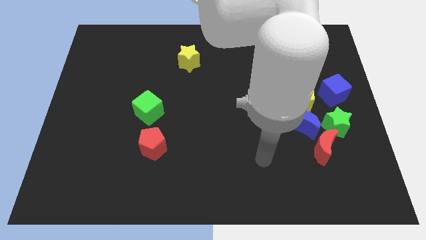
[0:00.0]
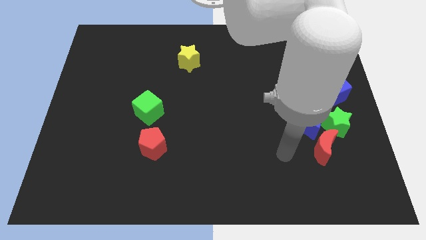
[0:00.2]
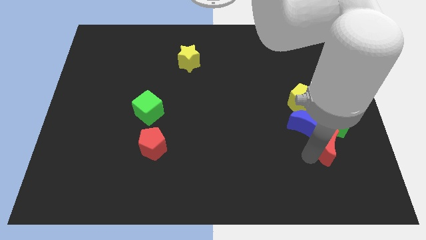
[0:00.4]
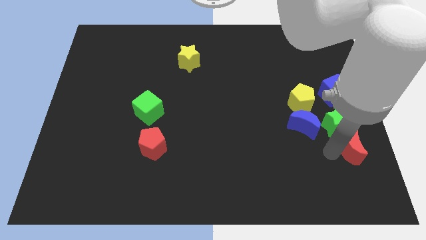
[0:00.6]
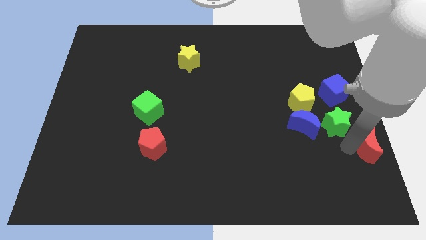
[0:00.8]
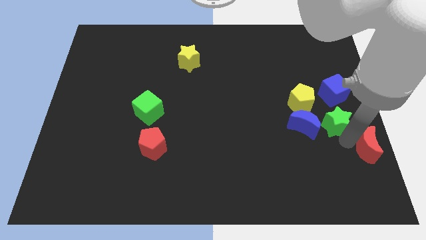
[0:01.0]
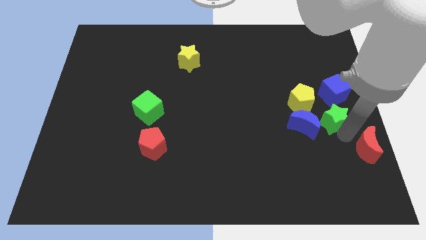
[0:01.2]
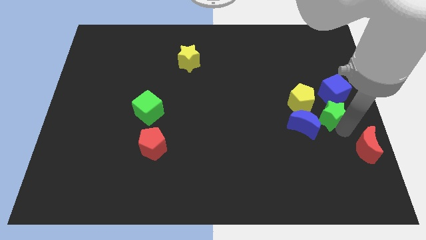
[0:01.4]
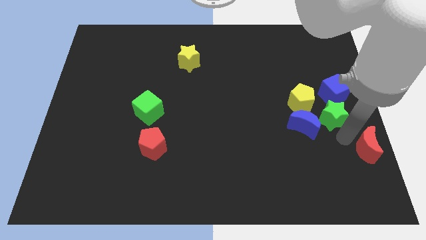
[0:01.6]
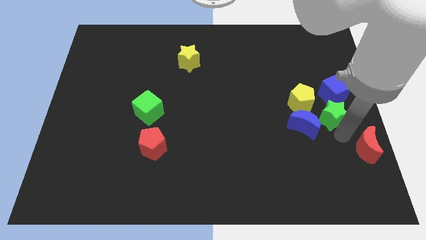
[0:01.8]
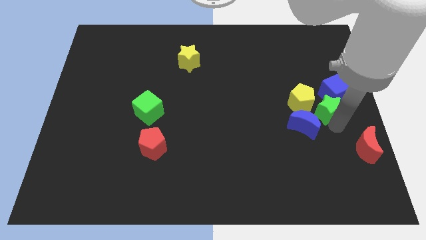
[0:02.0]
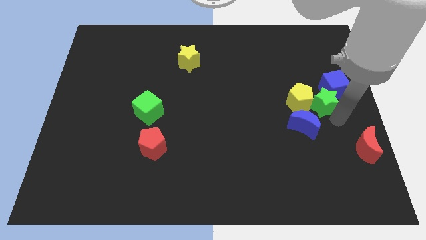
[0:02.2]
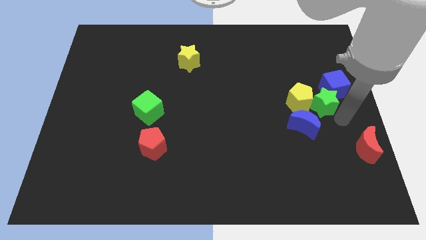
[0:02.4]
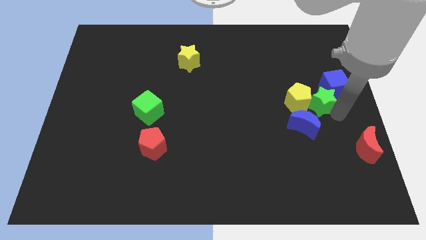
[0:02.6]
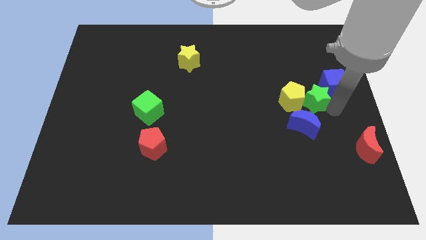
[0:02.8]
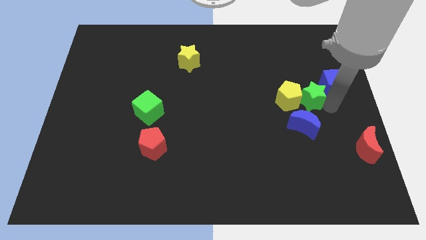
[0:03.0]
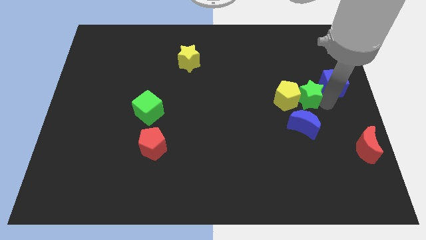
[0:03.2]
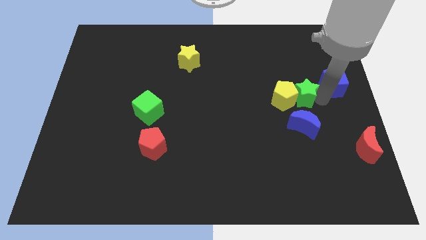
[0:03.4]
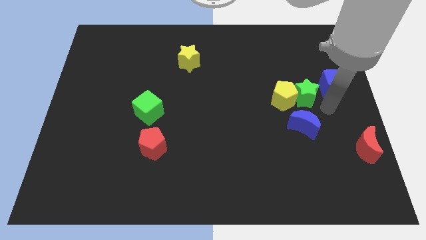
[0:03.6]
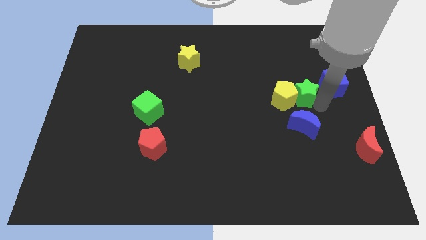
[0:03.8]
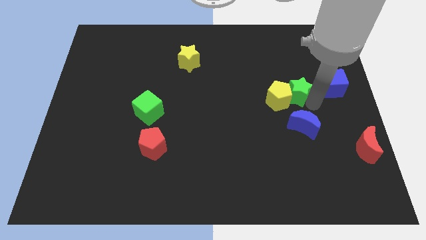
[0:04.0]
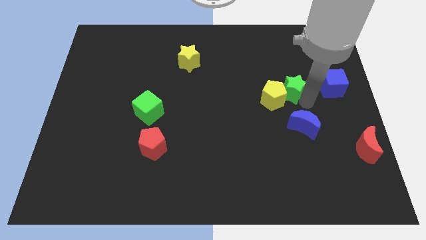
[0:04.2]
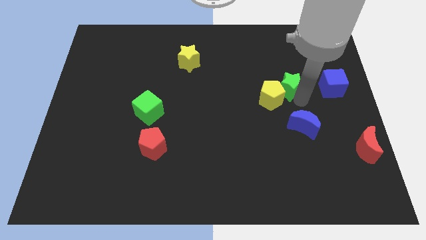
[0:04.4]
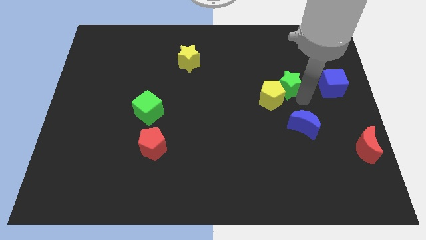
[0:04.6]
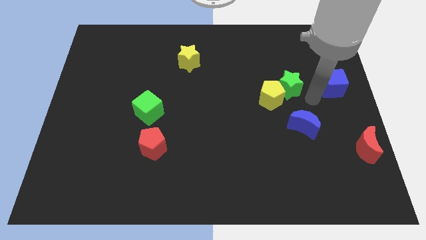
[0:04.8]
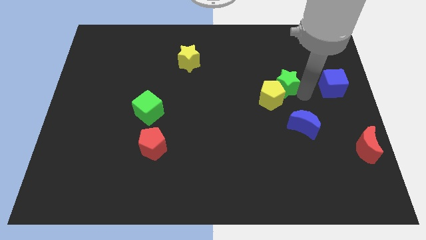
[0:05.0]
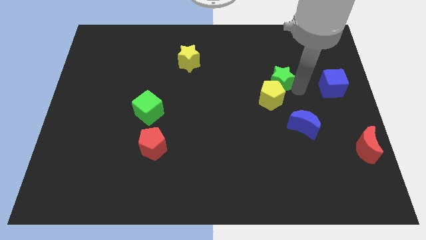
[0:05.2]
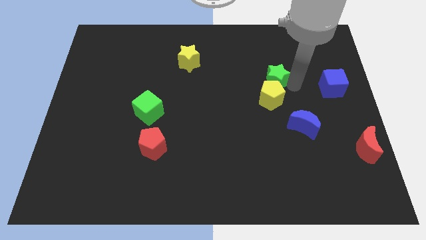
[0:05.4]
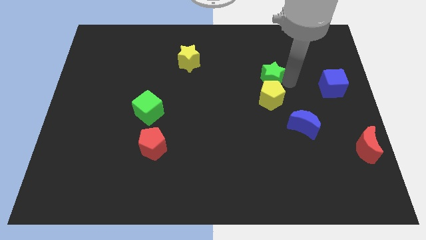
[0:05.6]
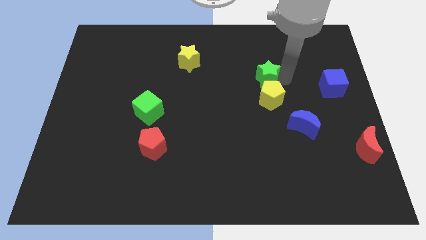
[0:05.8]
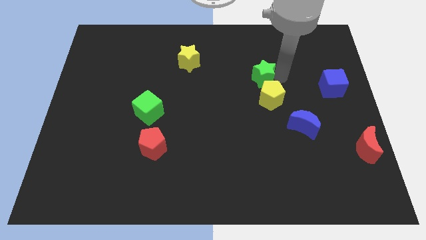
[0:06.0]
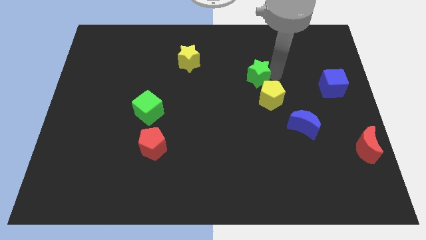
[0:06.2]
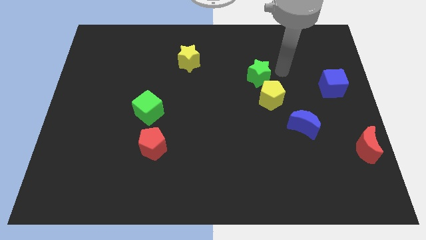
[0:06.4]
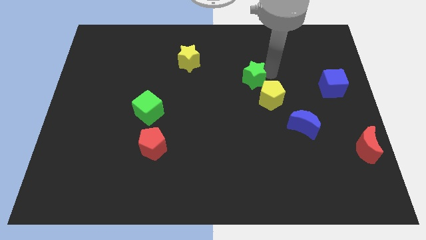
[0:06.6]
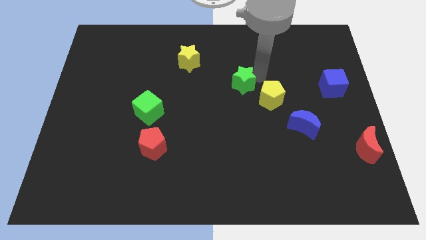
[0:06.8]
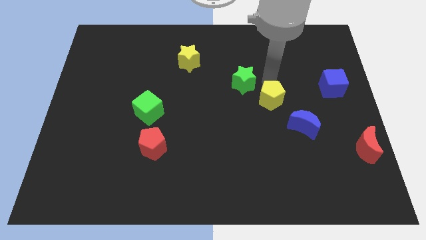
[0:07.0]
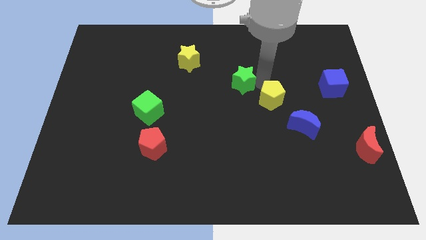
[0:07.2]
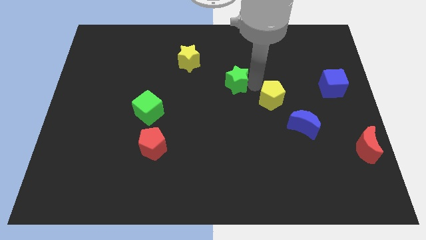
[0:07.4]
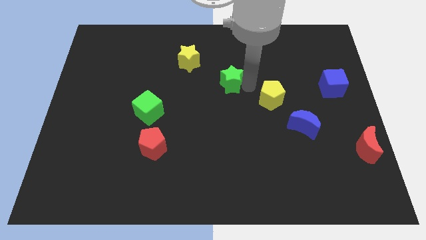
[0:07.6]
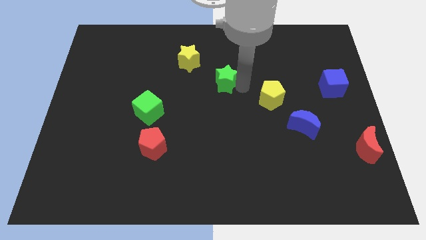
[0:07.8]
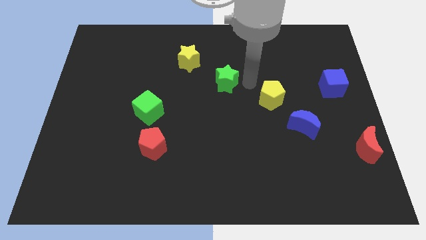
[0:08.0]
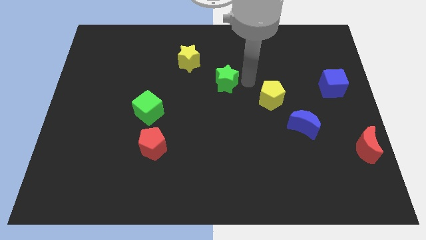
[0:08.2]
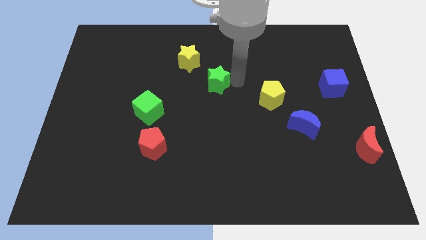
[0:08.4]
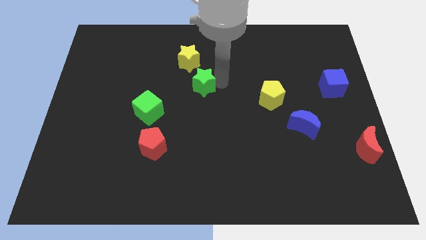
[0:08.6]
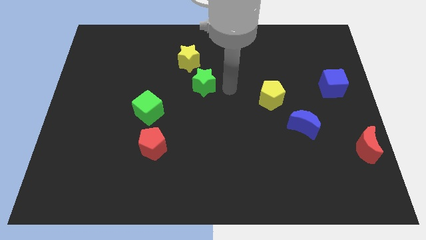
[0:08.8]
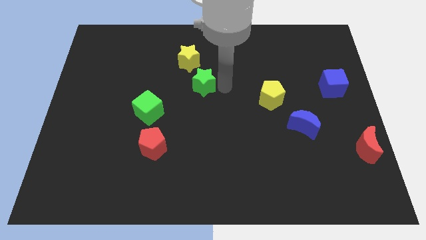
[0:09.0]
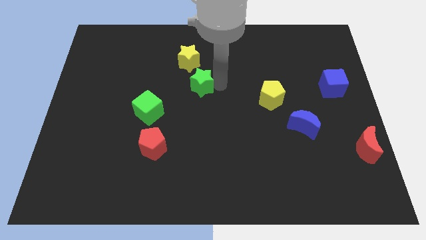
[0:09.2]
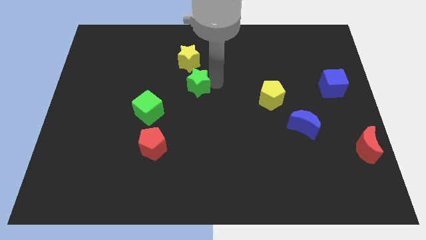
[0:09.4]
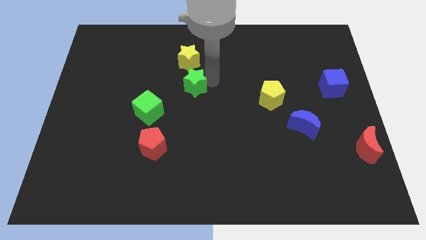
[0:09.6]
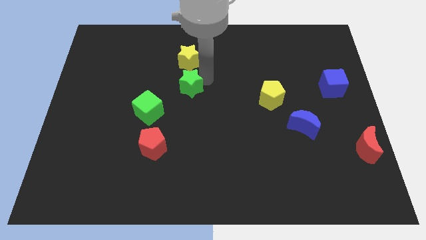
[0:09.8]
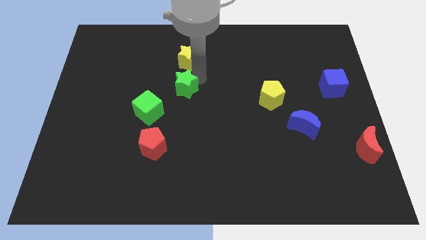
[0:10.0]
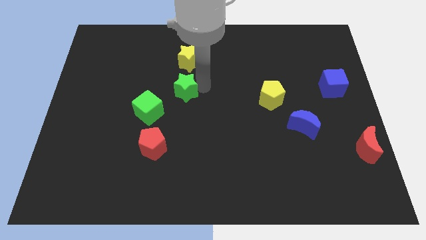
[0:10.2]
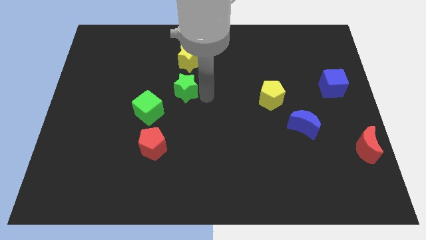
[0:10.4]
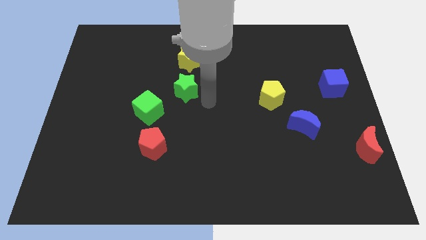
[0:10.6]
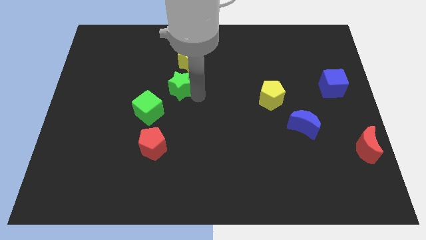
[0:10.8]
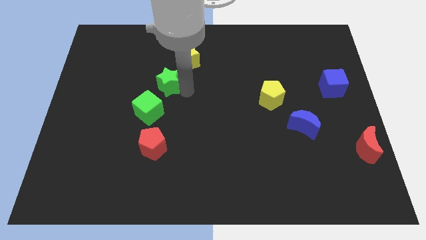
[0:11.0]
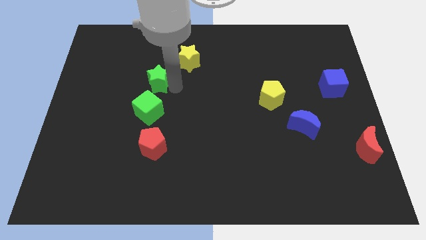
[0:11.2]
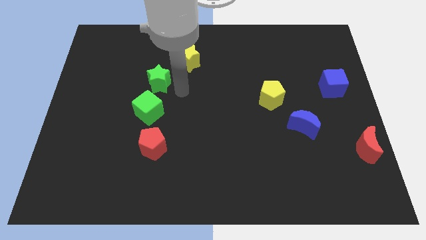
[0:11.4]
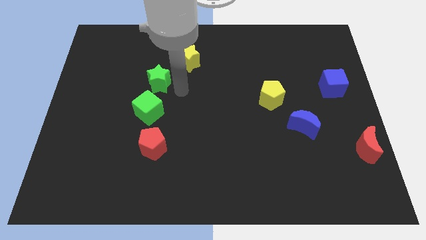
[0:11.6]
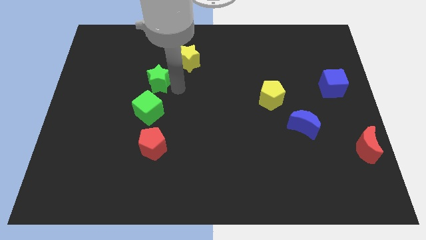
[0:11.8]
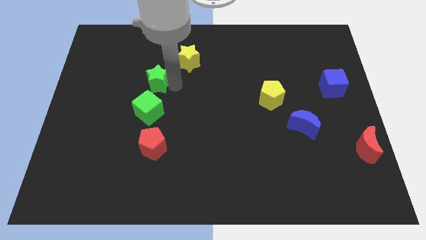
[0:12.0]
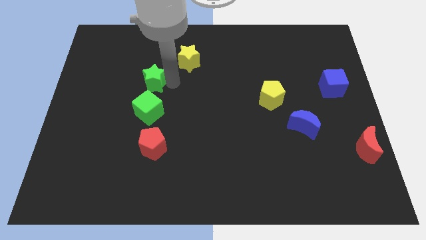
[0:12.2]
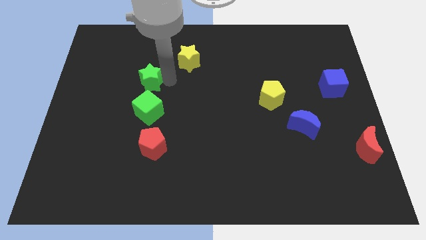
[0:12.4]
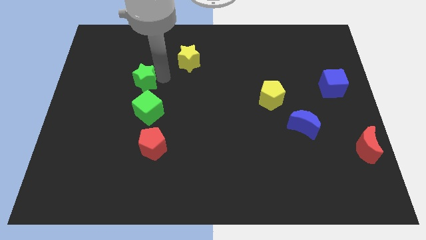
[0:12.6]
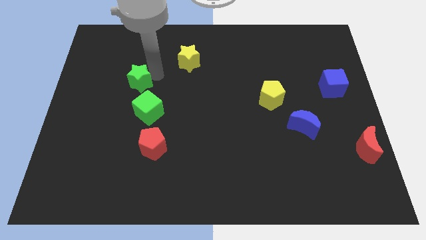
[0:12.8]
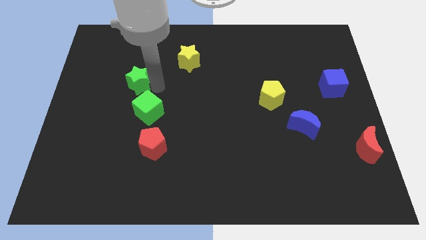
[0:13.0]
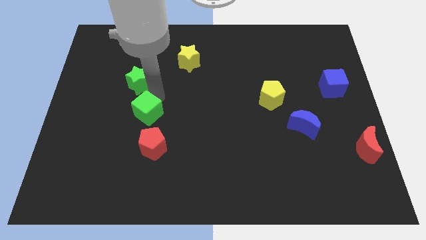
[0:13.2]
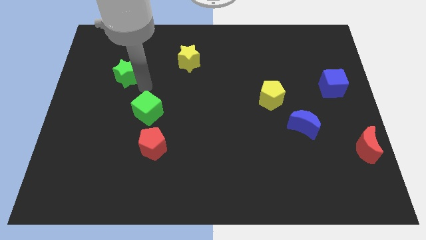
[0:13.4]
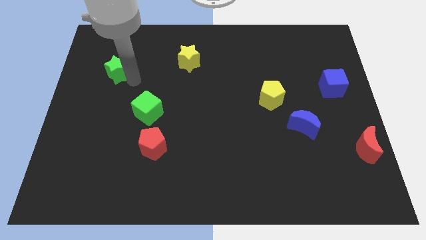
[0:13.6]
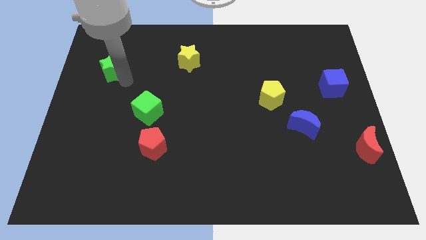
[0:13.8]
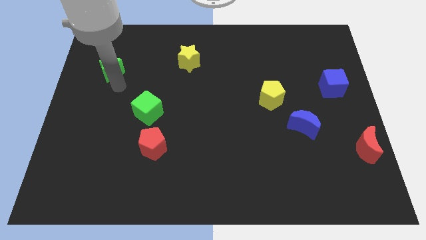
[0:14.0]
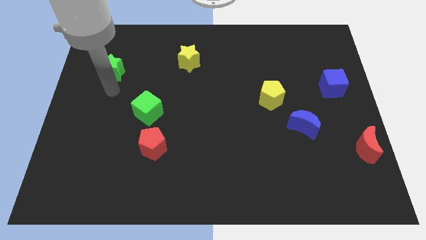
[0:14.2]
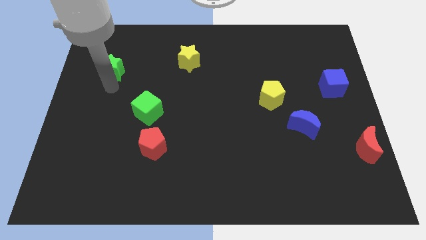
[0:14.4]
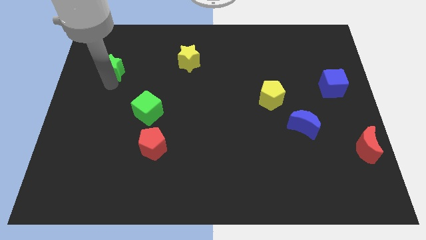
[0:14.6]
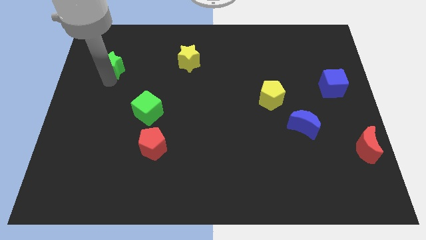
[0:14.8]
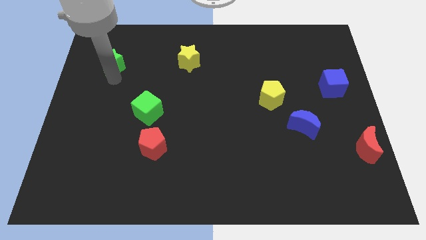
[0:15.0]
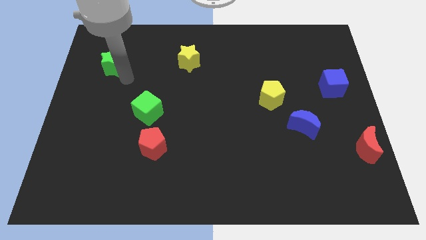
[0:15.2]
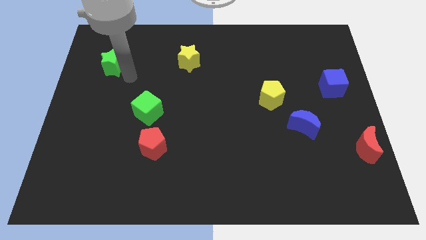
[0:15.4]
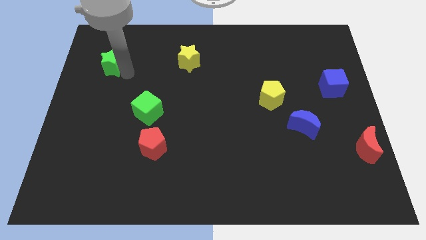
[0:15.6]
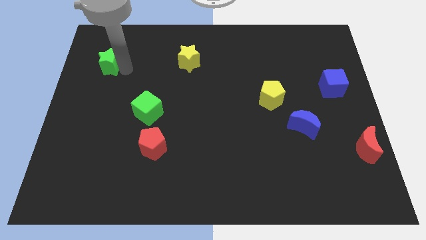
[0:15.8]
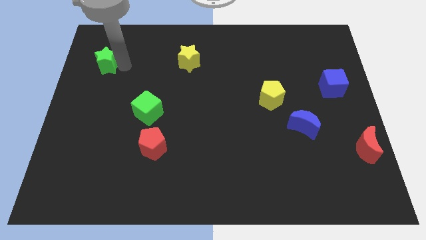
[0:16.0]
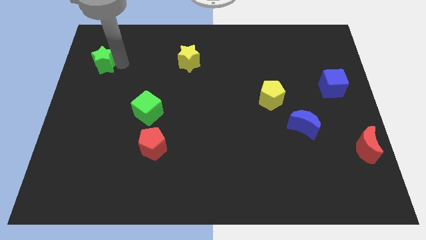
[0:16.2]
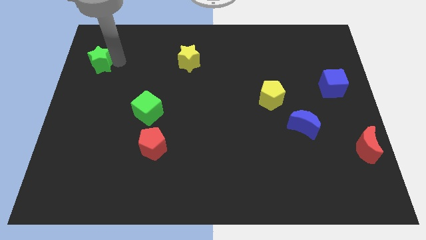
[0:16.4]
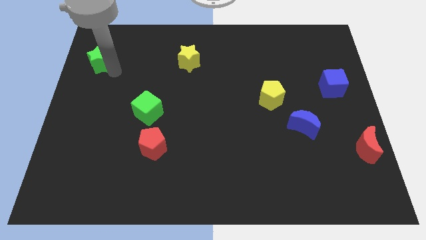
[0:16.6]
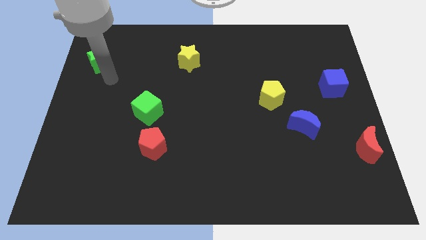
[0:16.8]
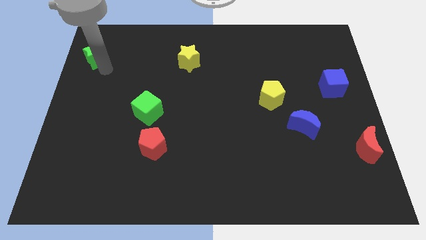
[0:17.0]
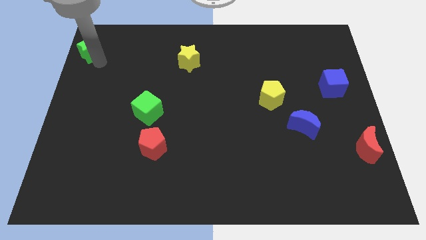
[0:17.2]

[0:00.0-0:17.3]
slide the green star to the upper left corner
